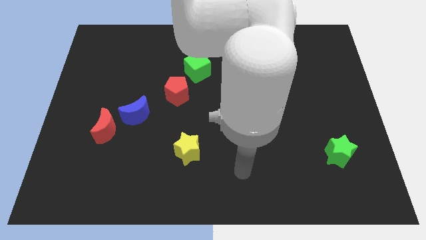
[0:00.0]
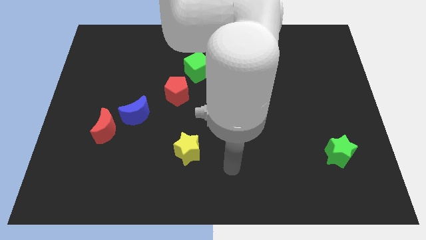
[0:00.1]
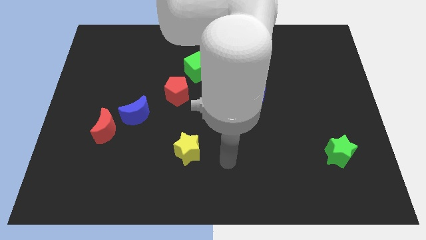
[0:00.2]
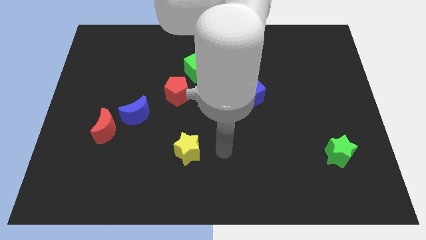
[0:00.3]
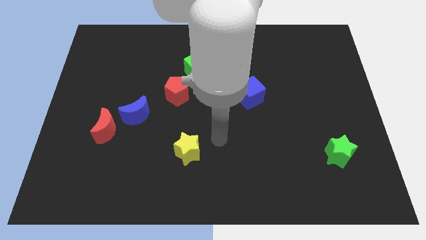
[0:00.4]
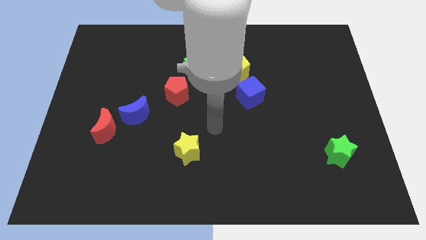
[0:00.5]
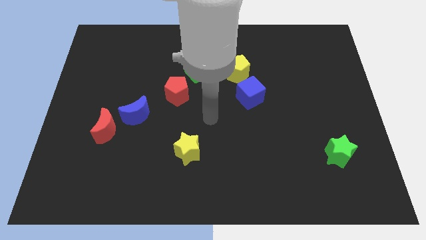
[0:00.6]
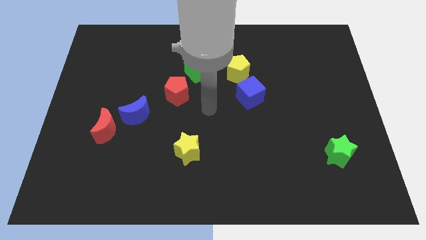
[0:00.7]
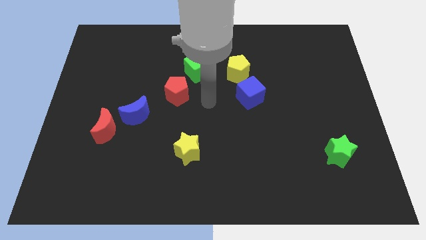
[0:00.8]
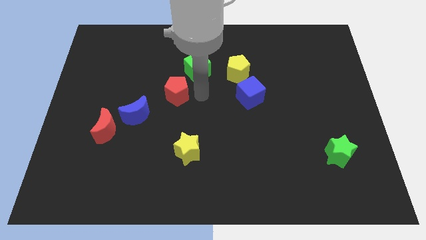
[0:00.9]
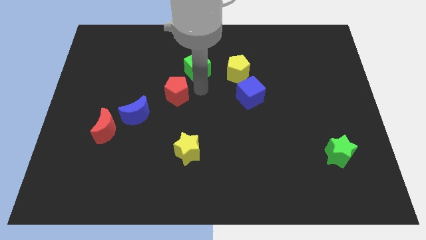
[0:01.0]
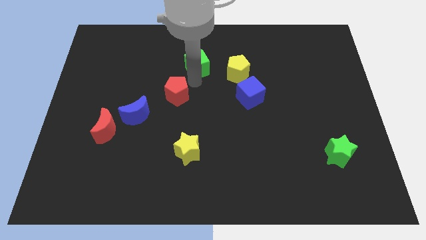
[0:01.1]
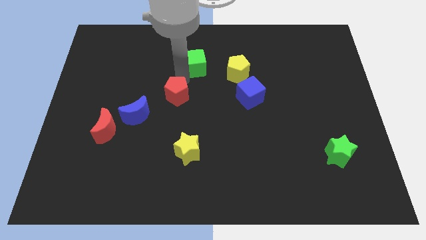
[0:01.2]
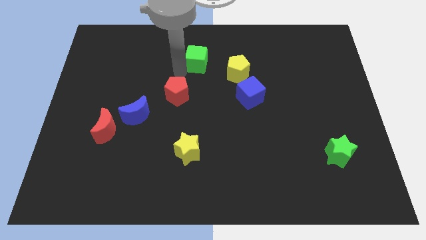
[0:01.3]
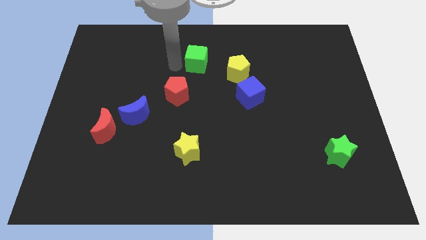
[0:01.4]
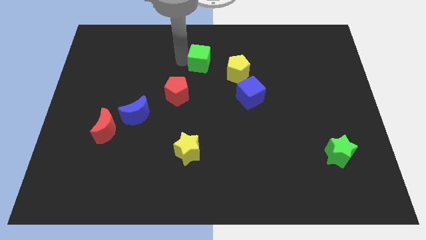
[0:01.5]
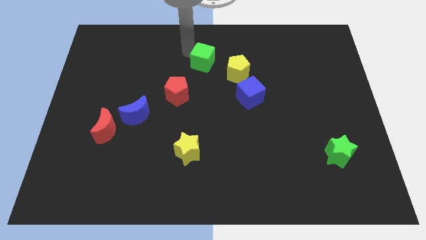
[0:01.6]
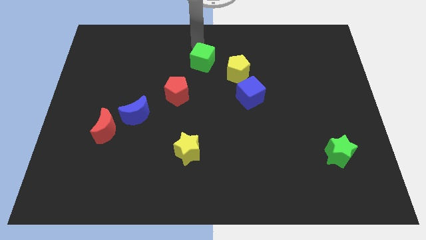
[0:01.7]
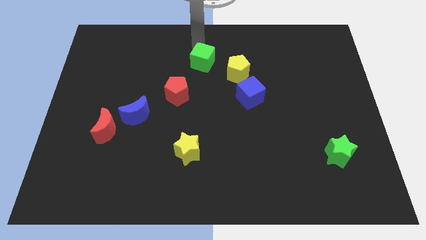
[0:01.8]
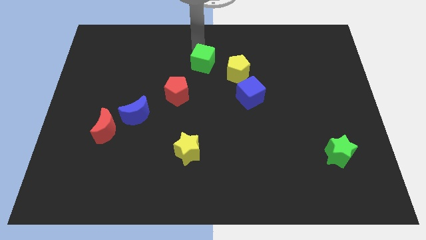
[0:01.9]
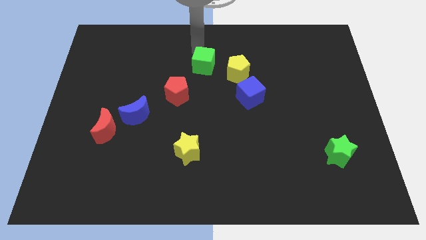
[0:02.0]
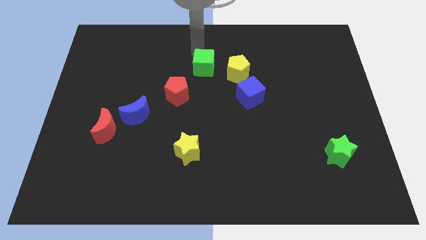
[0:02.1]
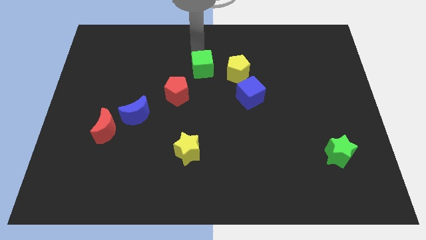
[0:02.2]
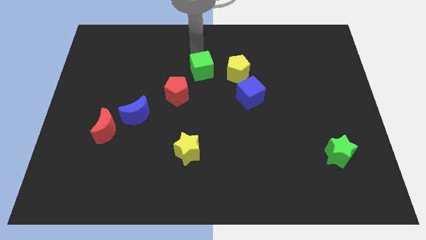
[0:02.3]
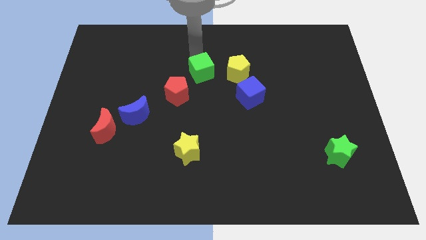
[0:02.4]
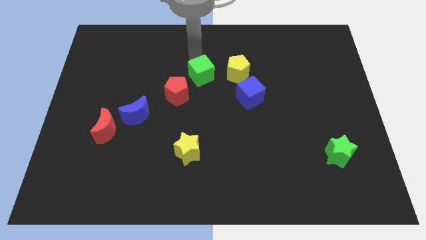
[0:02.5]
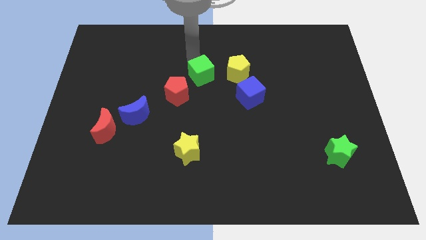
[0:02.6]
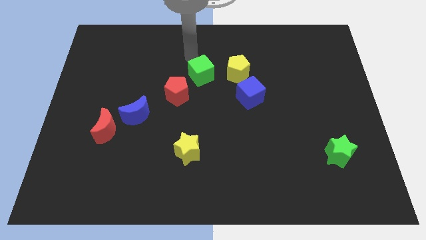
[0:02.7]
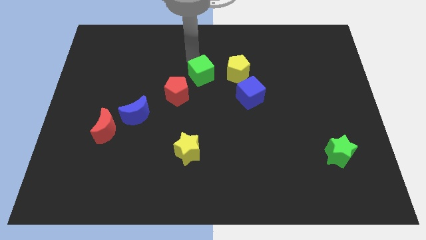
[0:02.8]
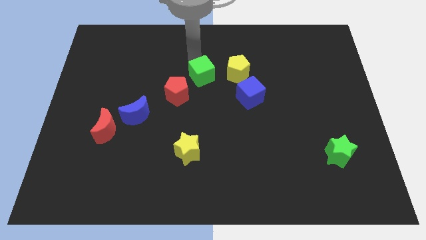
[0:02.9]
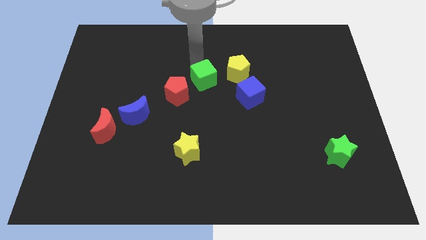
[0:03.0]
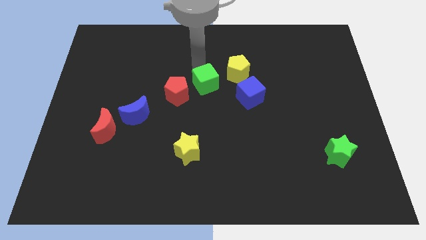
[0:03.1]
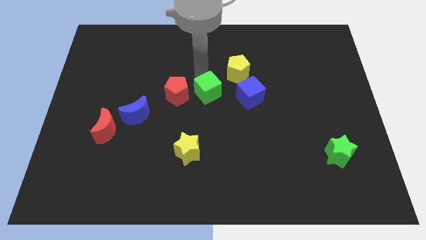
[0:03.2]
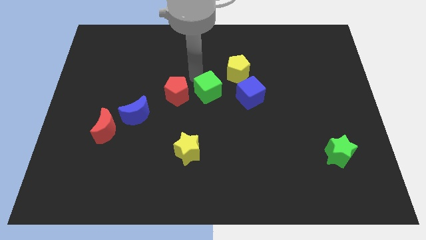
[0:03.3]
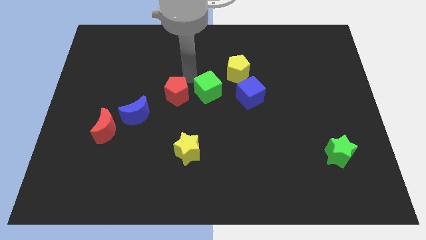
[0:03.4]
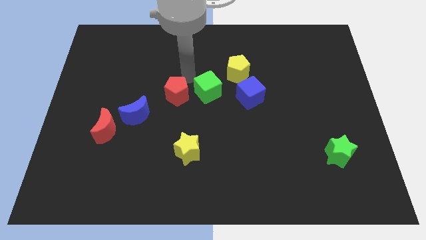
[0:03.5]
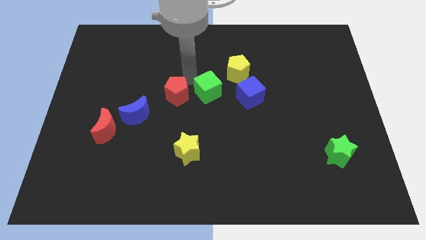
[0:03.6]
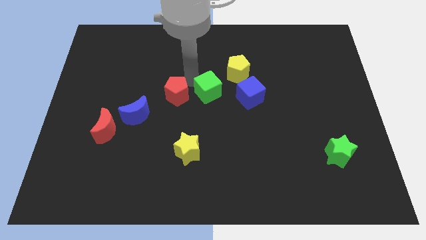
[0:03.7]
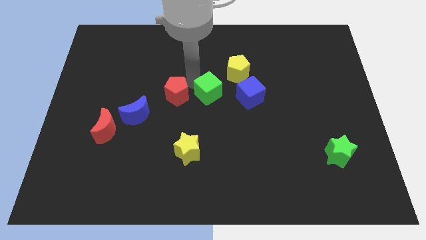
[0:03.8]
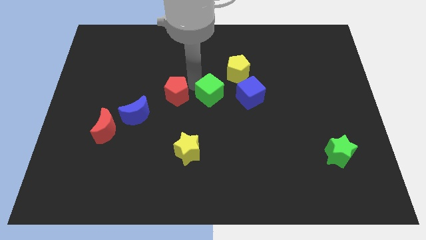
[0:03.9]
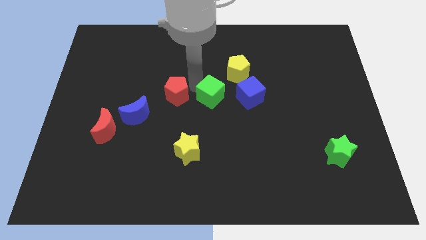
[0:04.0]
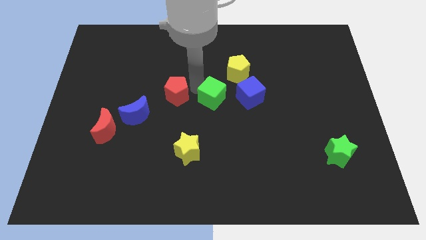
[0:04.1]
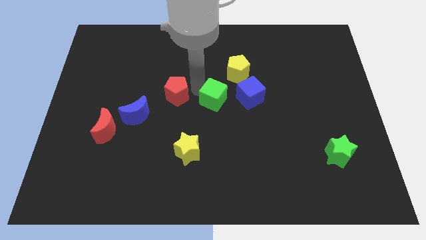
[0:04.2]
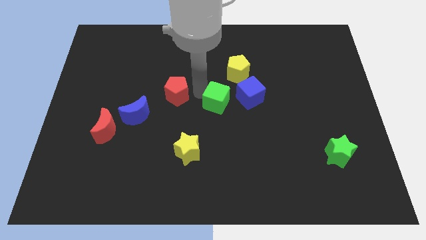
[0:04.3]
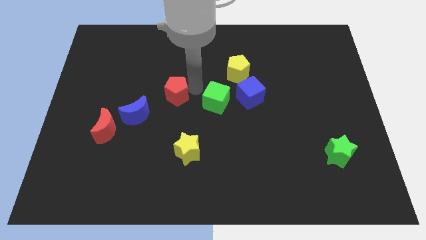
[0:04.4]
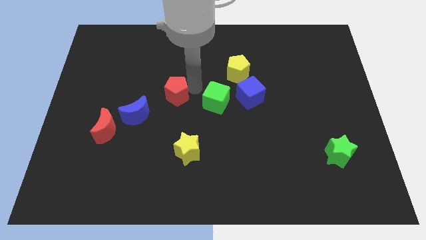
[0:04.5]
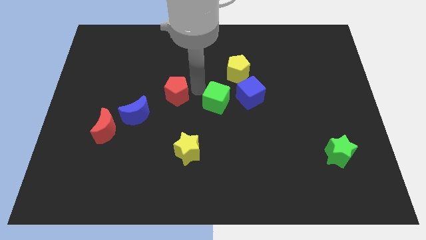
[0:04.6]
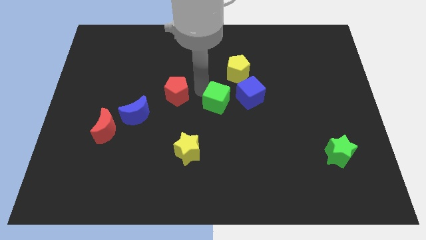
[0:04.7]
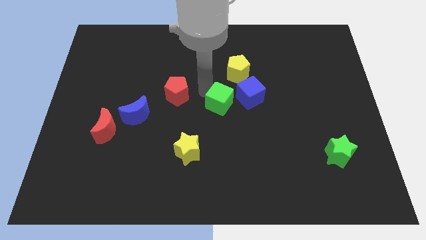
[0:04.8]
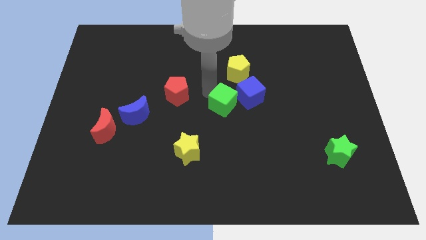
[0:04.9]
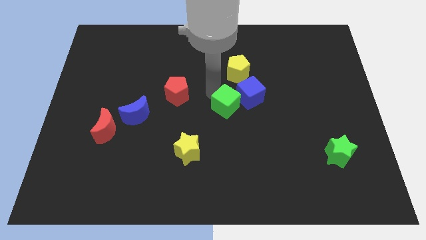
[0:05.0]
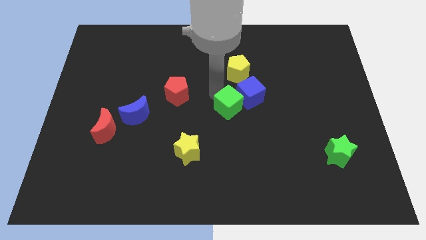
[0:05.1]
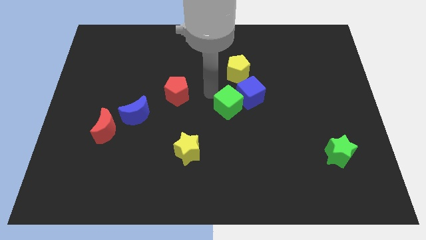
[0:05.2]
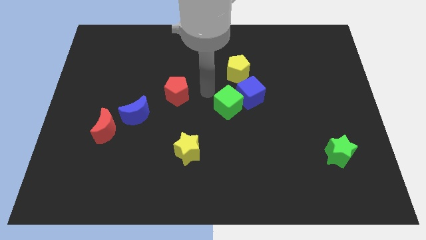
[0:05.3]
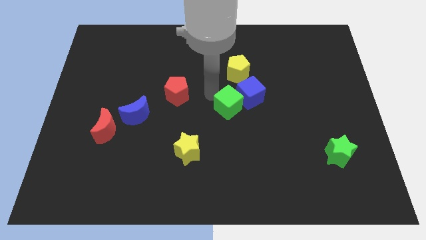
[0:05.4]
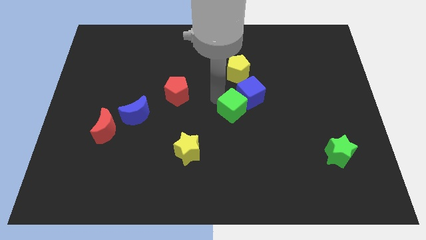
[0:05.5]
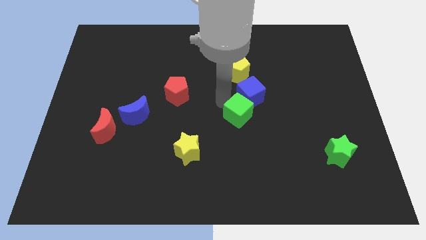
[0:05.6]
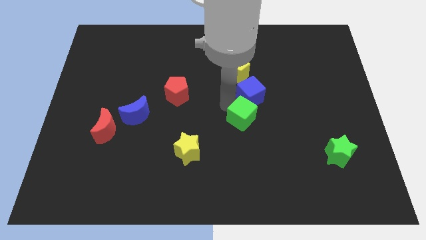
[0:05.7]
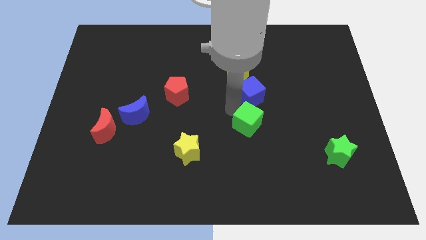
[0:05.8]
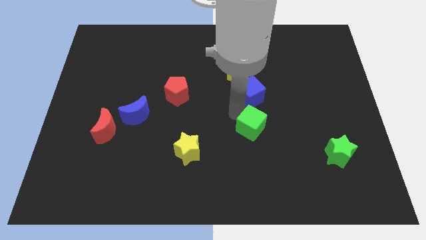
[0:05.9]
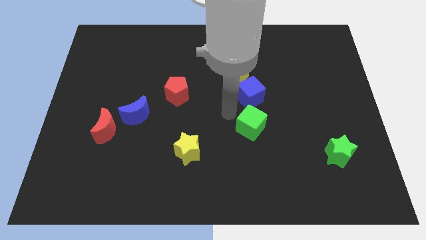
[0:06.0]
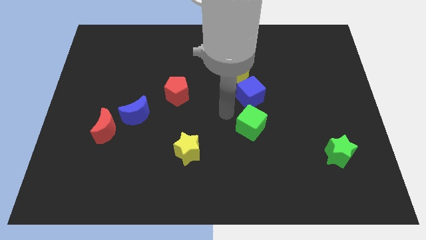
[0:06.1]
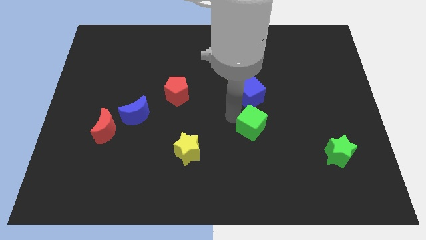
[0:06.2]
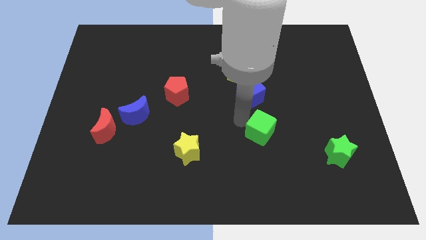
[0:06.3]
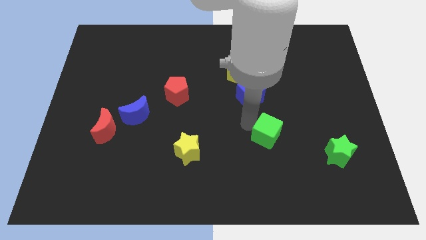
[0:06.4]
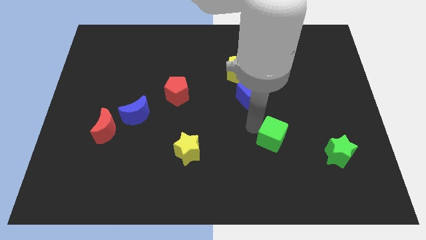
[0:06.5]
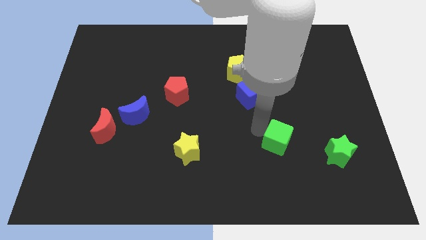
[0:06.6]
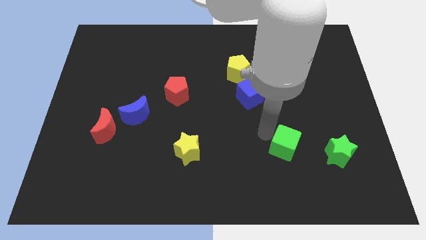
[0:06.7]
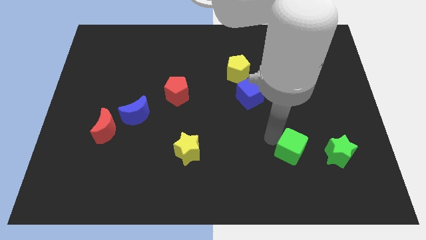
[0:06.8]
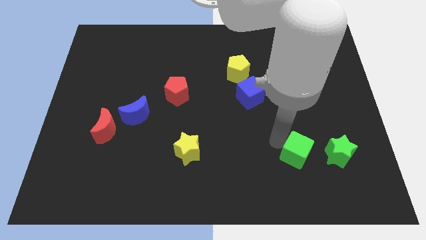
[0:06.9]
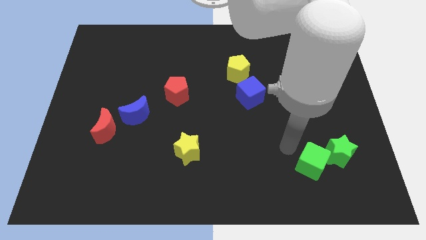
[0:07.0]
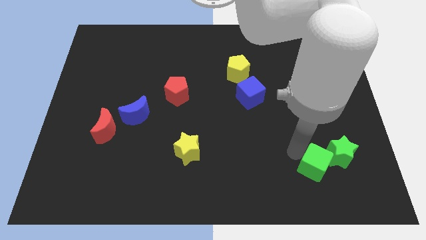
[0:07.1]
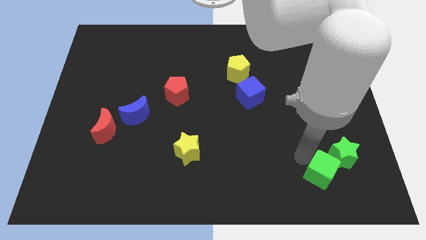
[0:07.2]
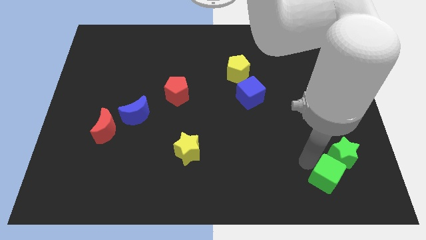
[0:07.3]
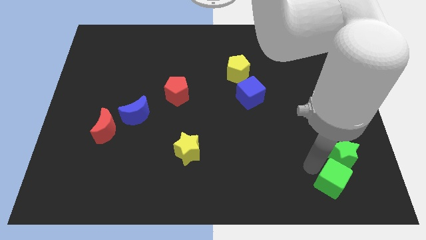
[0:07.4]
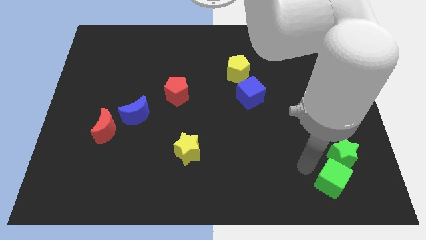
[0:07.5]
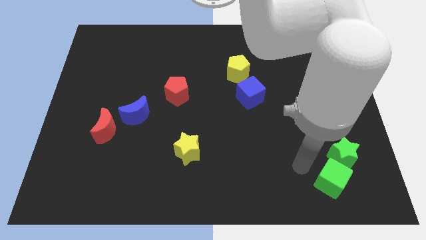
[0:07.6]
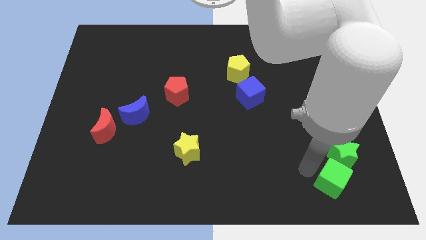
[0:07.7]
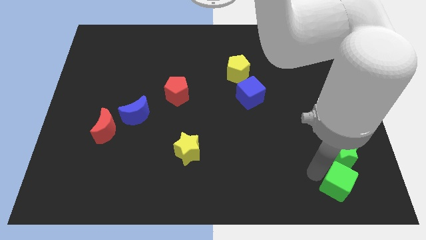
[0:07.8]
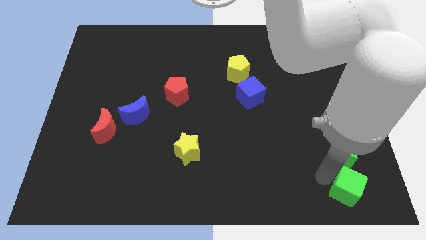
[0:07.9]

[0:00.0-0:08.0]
slide the green cube to the bottom right corner
